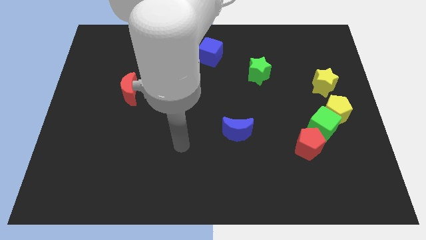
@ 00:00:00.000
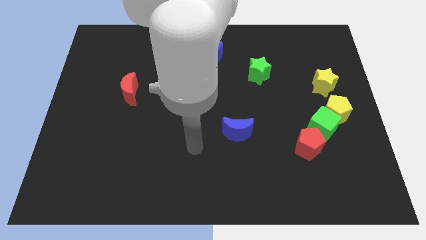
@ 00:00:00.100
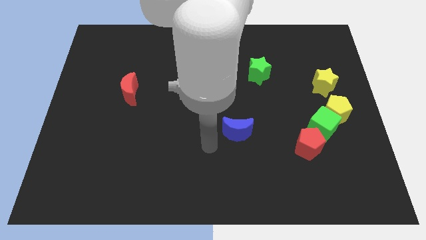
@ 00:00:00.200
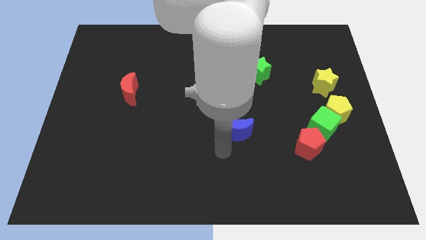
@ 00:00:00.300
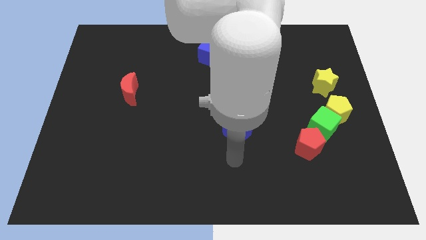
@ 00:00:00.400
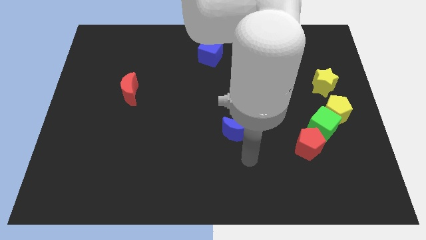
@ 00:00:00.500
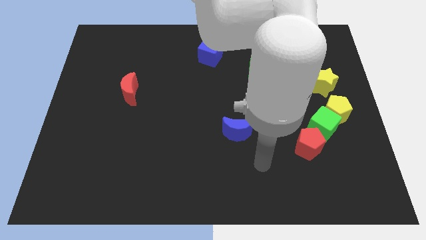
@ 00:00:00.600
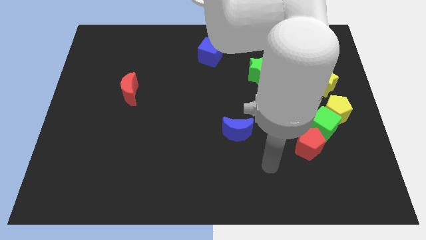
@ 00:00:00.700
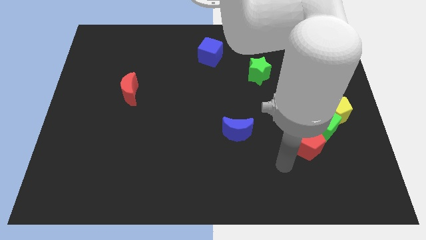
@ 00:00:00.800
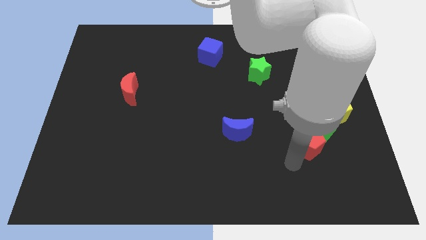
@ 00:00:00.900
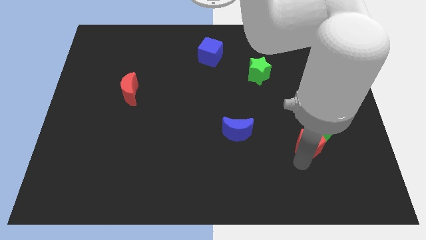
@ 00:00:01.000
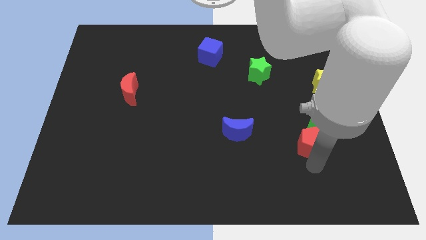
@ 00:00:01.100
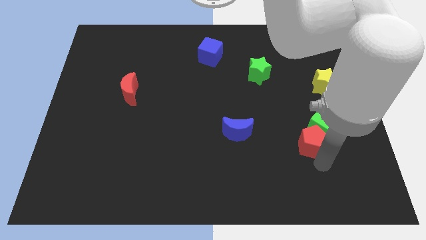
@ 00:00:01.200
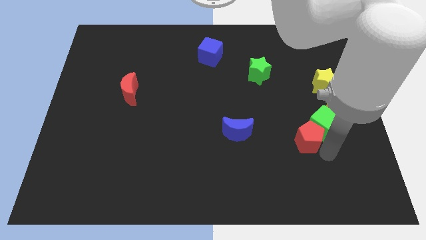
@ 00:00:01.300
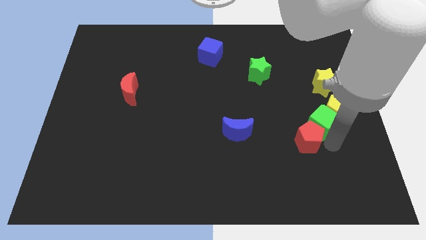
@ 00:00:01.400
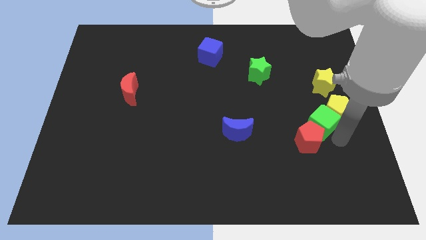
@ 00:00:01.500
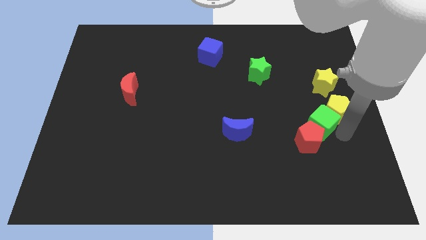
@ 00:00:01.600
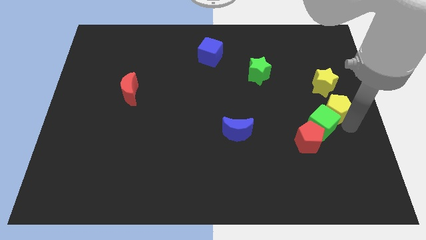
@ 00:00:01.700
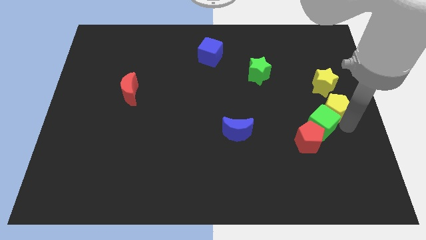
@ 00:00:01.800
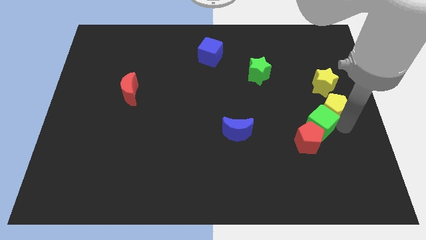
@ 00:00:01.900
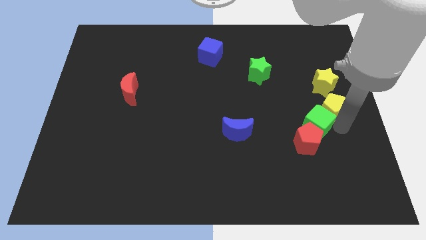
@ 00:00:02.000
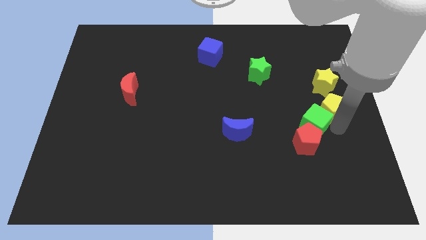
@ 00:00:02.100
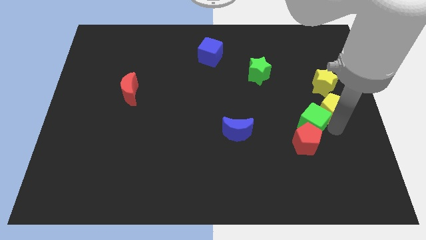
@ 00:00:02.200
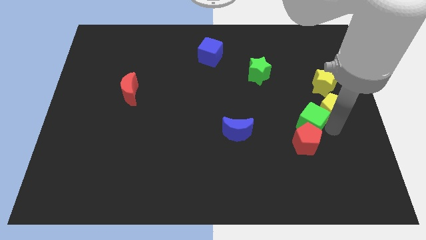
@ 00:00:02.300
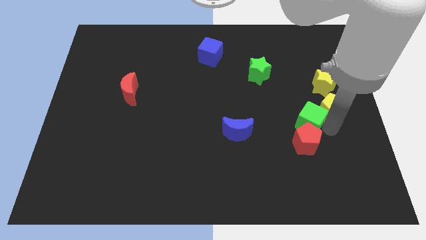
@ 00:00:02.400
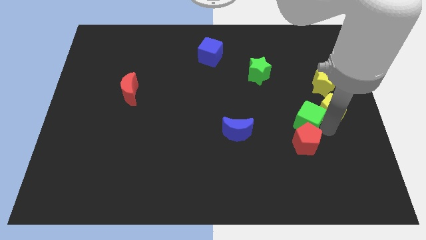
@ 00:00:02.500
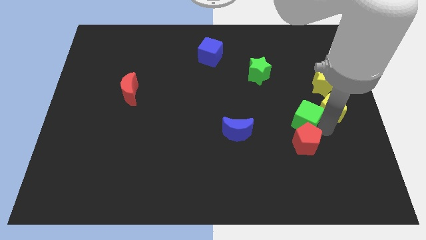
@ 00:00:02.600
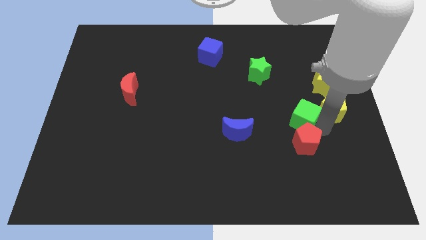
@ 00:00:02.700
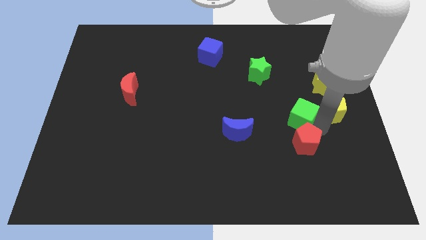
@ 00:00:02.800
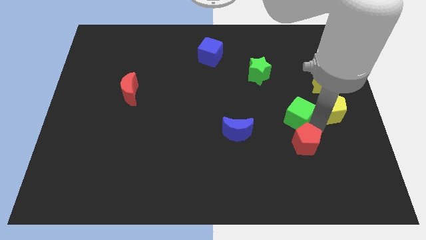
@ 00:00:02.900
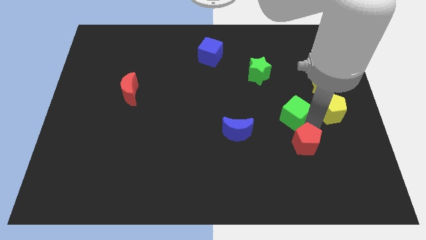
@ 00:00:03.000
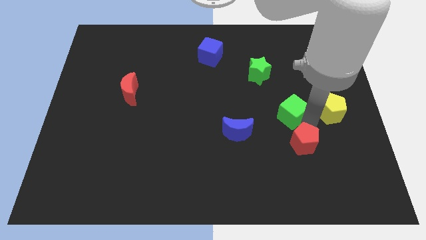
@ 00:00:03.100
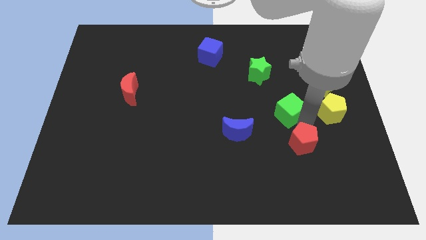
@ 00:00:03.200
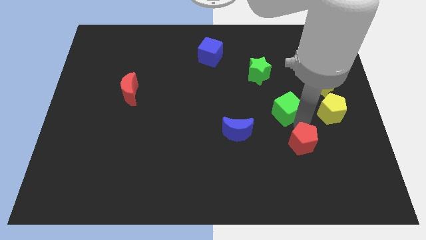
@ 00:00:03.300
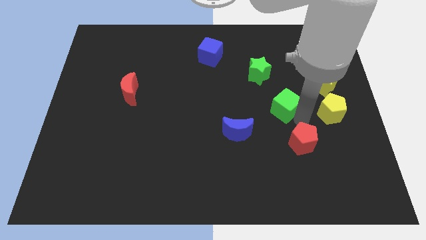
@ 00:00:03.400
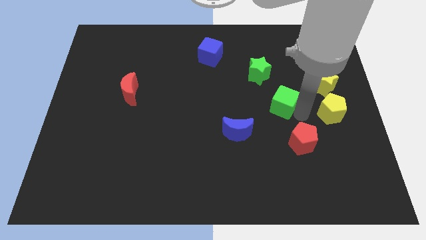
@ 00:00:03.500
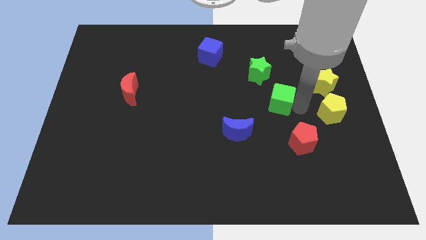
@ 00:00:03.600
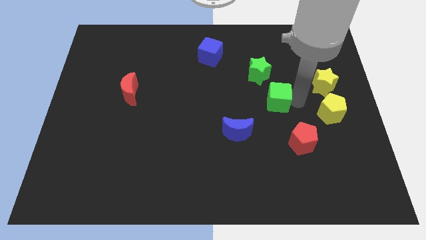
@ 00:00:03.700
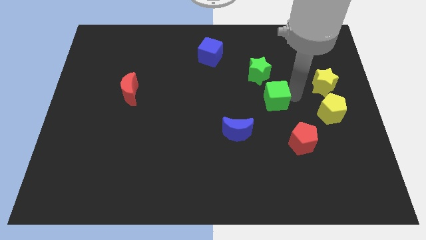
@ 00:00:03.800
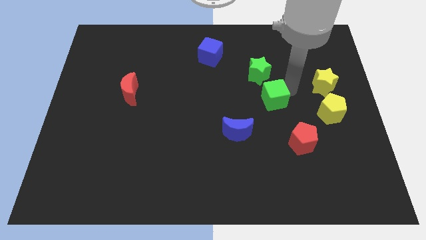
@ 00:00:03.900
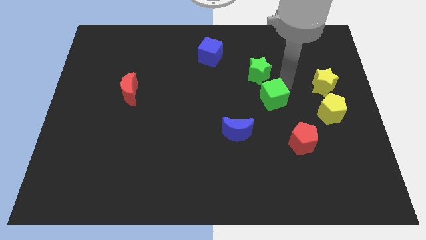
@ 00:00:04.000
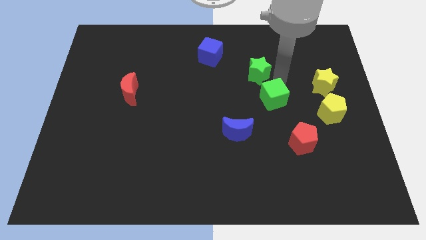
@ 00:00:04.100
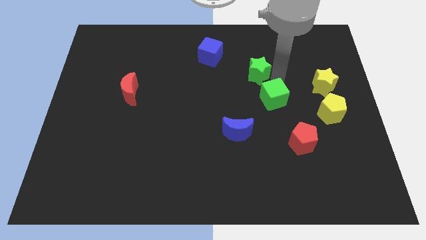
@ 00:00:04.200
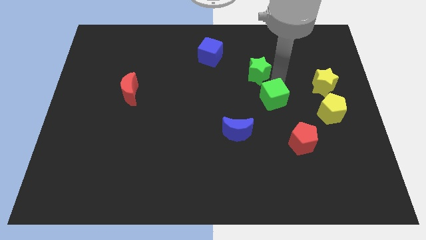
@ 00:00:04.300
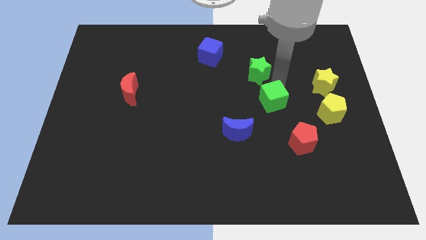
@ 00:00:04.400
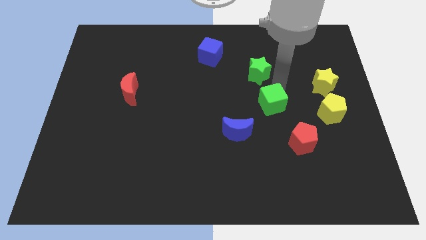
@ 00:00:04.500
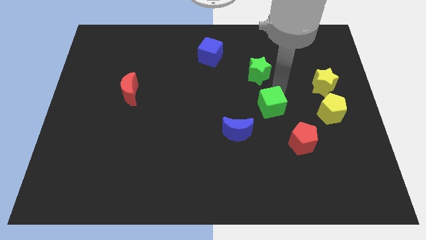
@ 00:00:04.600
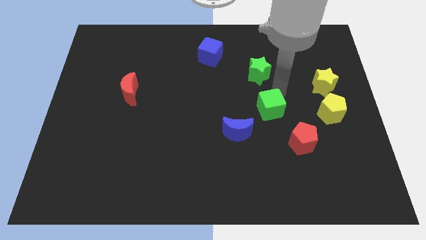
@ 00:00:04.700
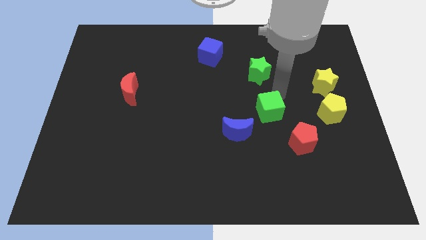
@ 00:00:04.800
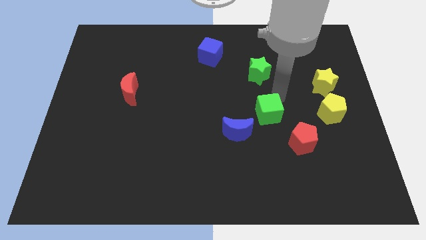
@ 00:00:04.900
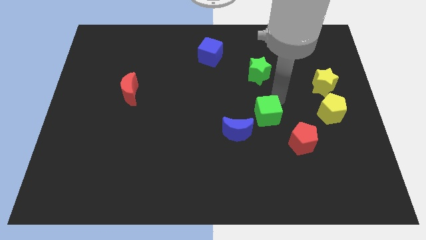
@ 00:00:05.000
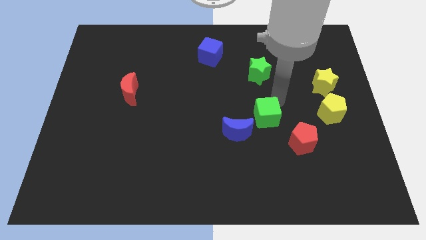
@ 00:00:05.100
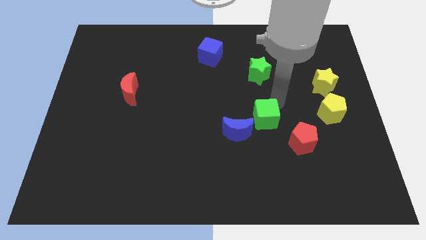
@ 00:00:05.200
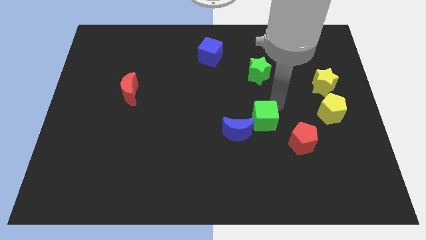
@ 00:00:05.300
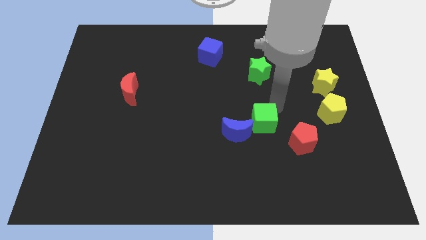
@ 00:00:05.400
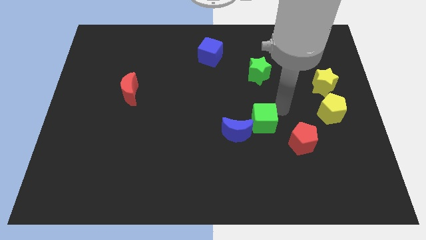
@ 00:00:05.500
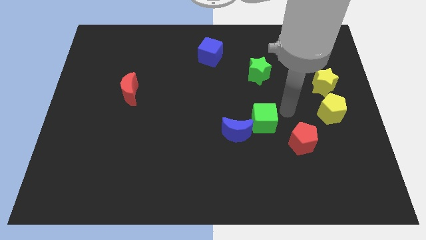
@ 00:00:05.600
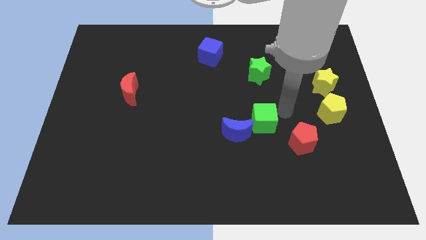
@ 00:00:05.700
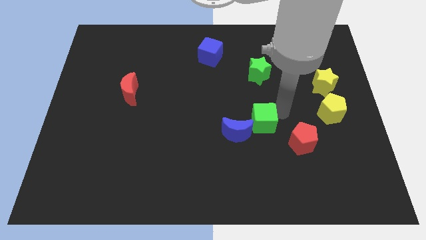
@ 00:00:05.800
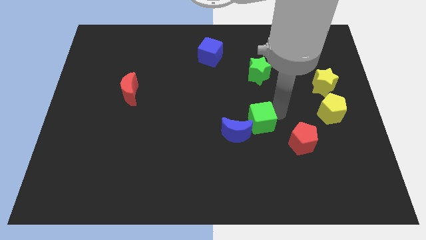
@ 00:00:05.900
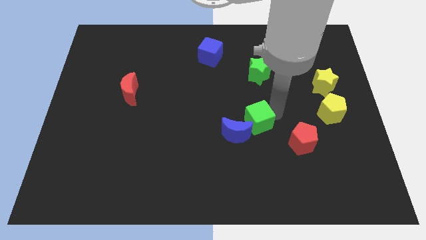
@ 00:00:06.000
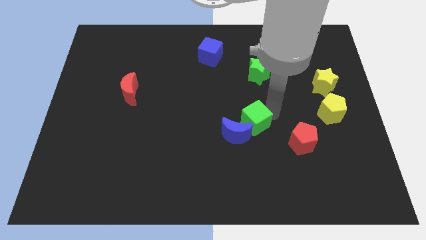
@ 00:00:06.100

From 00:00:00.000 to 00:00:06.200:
push the green cube to the blue moon

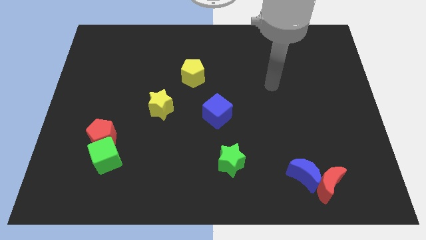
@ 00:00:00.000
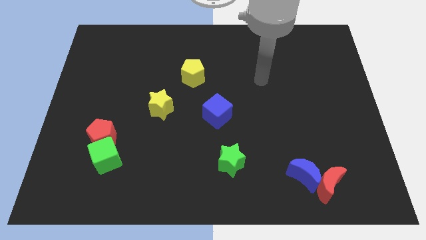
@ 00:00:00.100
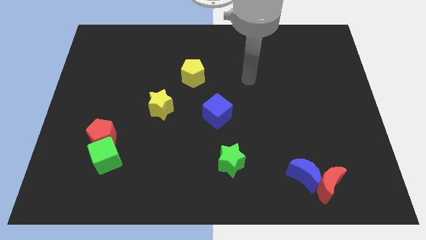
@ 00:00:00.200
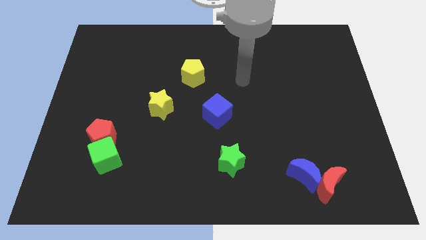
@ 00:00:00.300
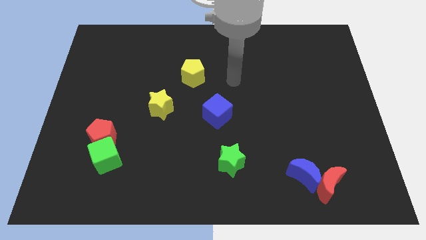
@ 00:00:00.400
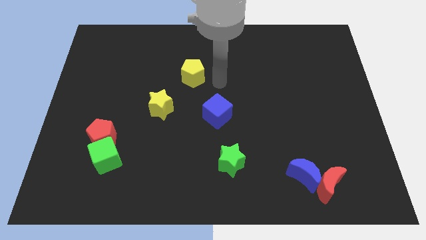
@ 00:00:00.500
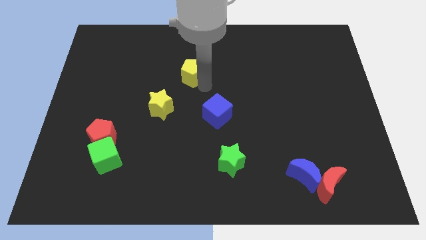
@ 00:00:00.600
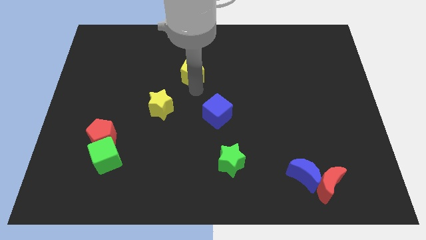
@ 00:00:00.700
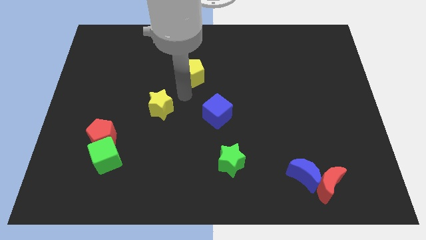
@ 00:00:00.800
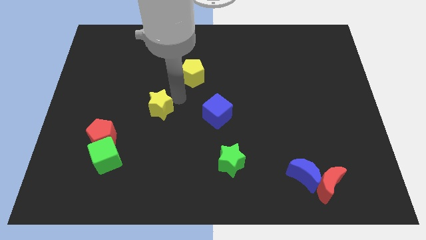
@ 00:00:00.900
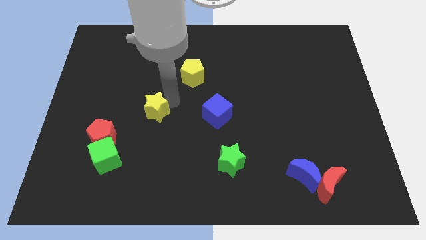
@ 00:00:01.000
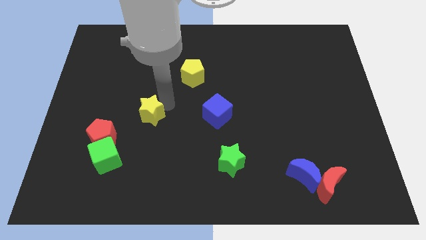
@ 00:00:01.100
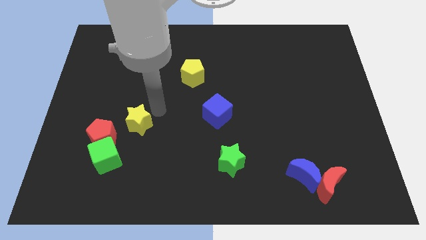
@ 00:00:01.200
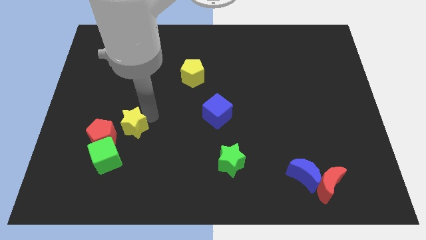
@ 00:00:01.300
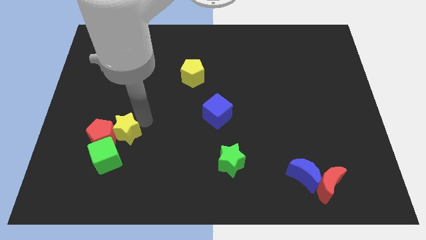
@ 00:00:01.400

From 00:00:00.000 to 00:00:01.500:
push the yellow star to the red pentagon
